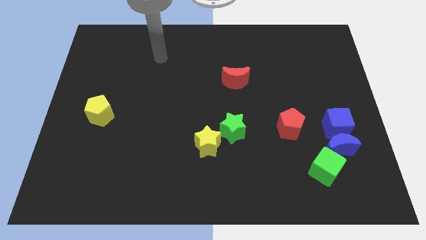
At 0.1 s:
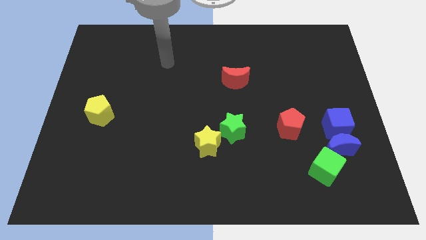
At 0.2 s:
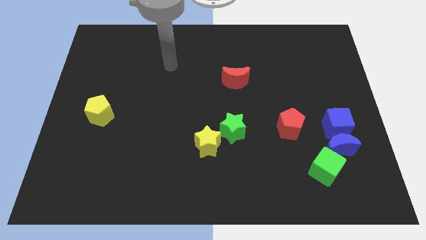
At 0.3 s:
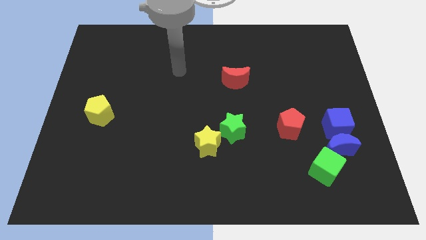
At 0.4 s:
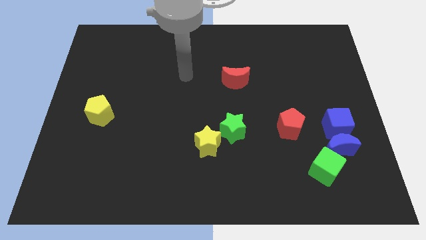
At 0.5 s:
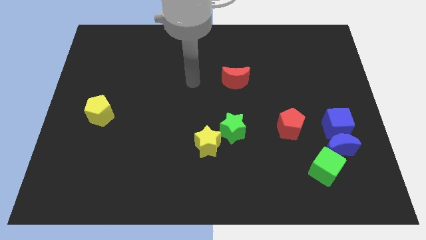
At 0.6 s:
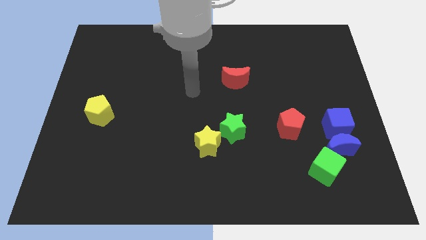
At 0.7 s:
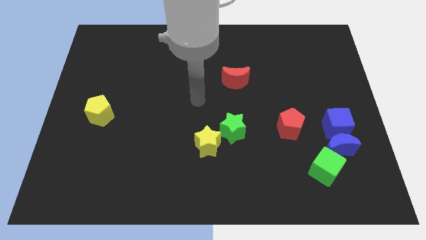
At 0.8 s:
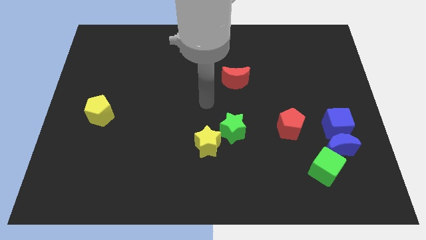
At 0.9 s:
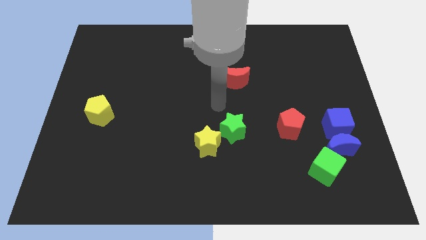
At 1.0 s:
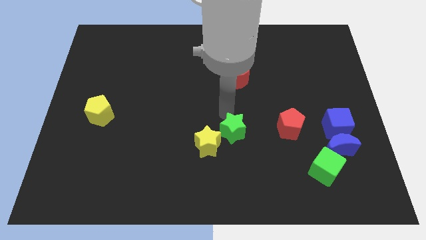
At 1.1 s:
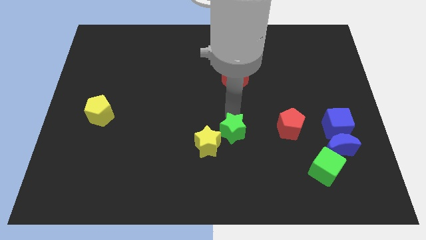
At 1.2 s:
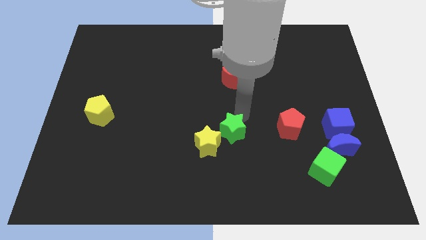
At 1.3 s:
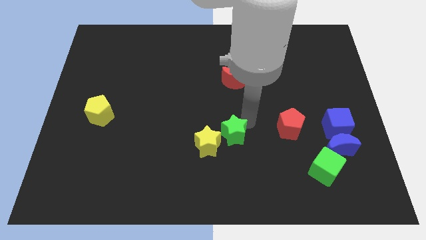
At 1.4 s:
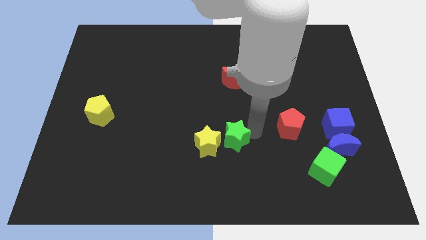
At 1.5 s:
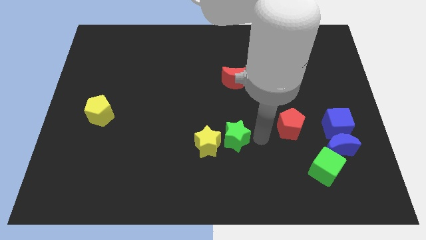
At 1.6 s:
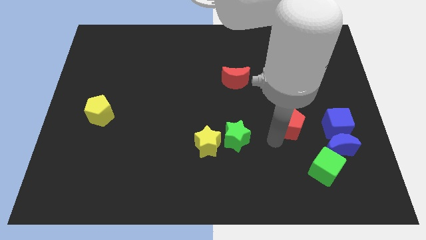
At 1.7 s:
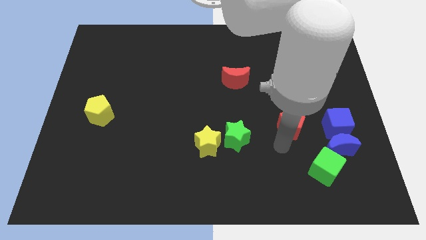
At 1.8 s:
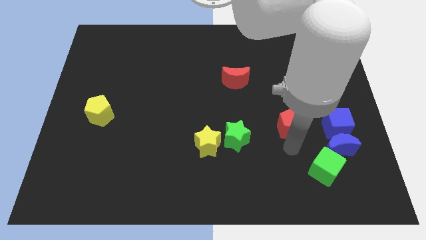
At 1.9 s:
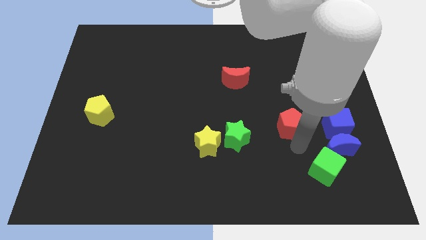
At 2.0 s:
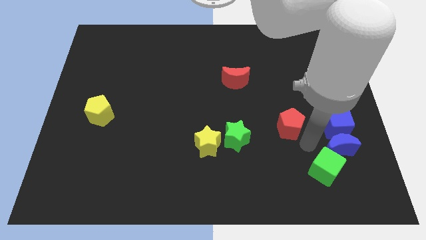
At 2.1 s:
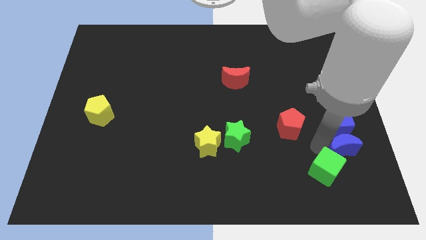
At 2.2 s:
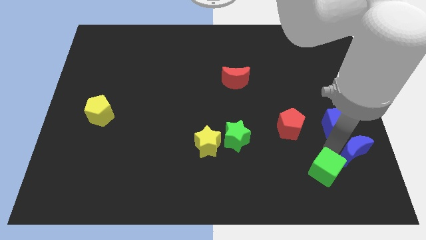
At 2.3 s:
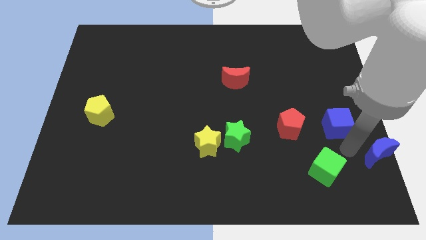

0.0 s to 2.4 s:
separate the blue cube from the blue moon

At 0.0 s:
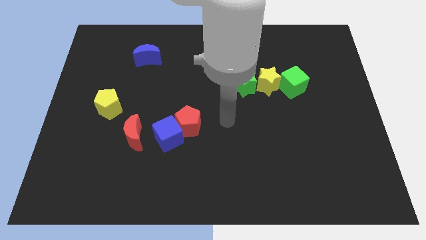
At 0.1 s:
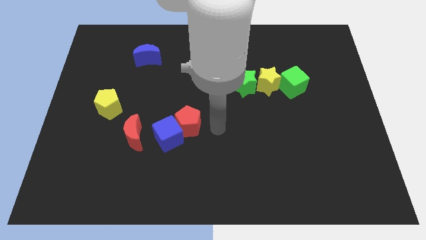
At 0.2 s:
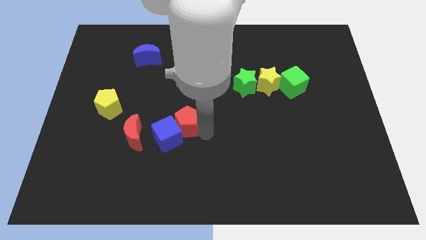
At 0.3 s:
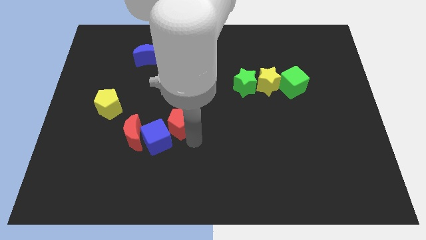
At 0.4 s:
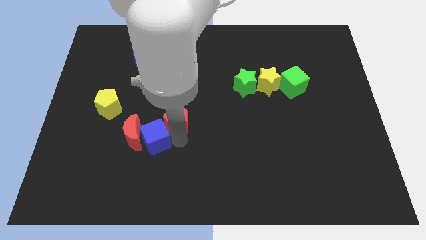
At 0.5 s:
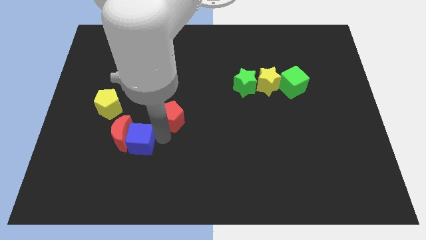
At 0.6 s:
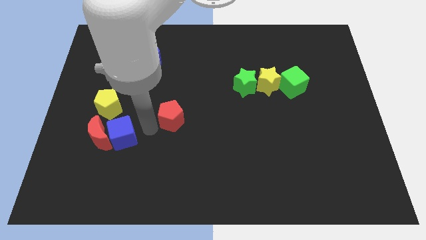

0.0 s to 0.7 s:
separate the red pentagon from the blue cube

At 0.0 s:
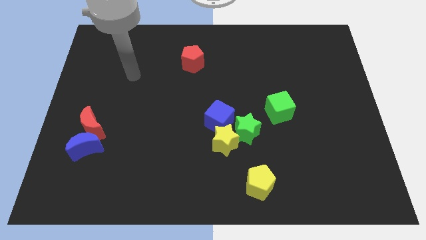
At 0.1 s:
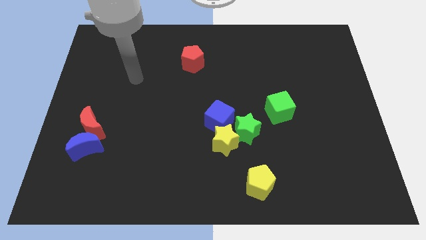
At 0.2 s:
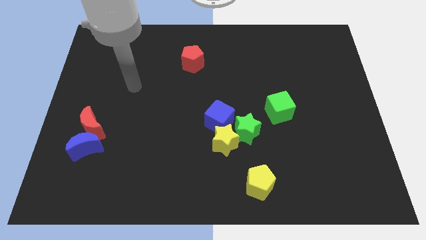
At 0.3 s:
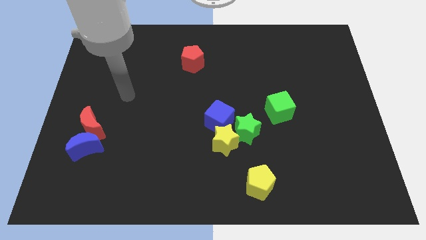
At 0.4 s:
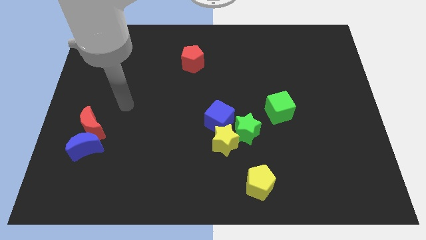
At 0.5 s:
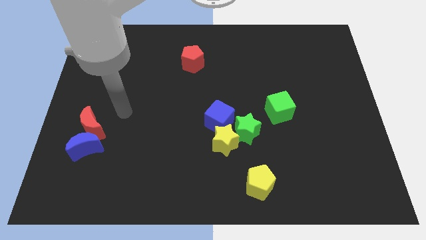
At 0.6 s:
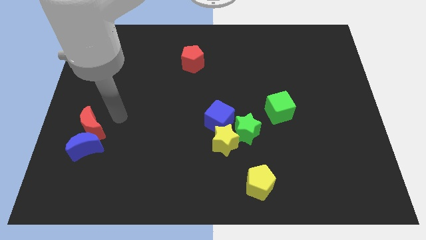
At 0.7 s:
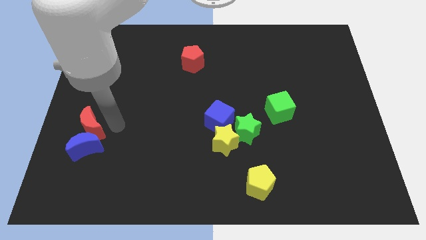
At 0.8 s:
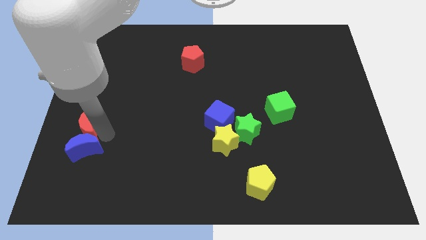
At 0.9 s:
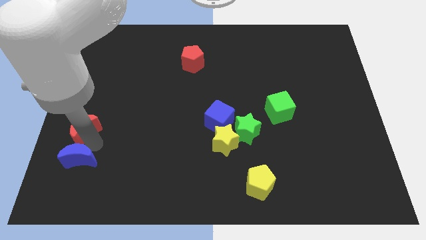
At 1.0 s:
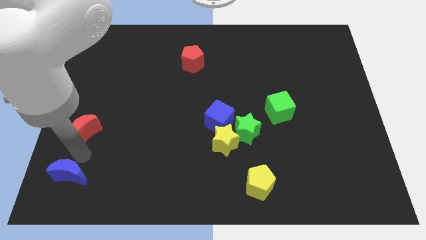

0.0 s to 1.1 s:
pull the red moon apart from the blue moon

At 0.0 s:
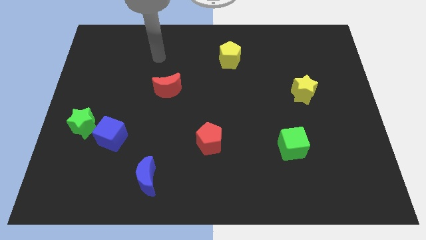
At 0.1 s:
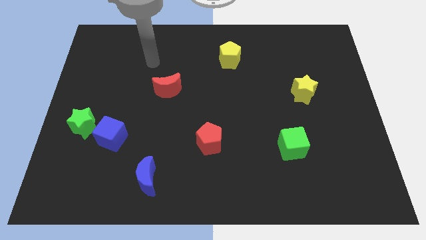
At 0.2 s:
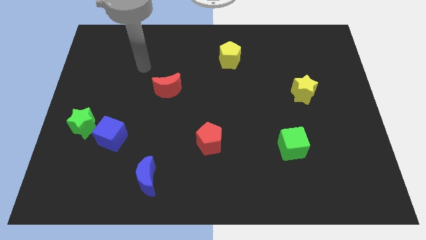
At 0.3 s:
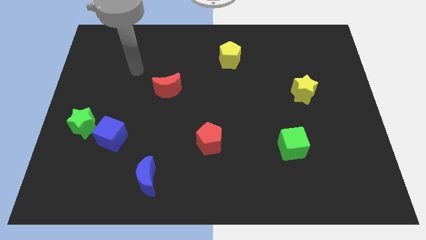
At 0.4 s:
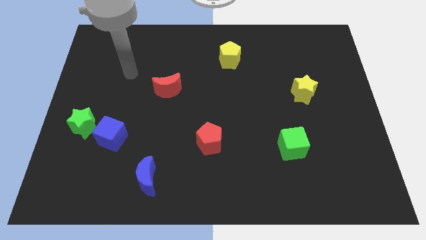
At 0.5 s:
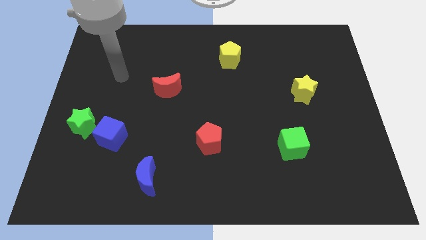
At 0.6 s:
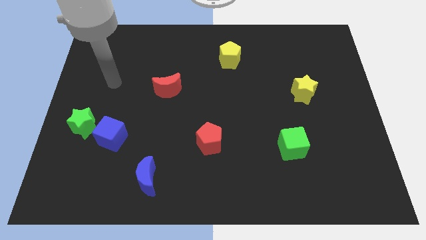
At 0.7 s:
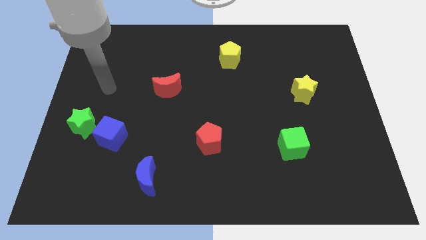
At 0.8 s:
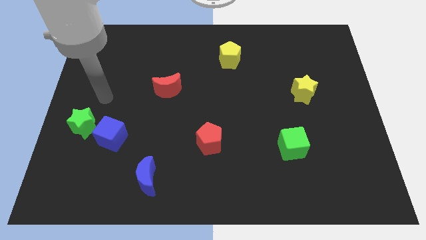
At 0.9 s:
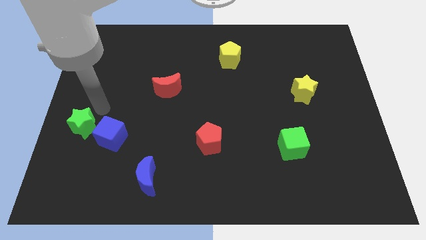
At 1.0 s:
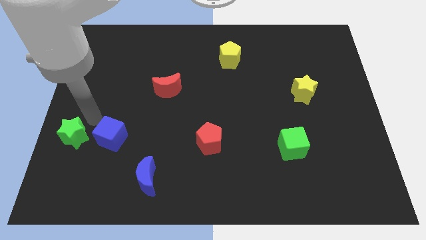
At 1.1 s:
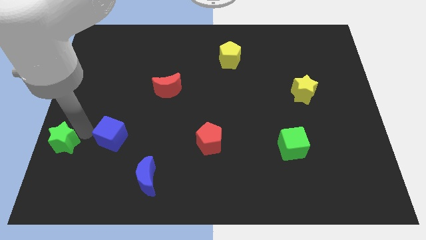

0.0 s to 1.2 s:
move the blue cube away from the green star

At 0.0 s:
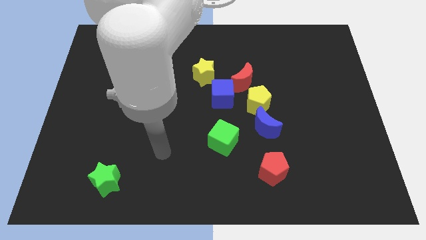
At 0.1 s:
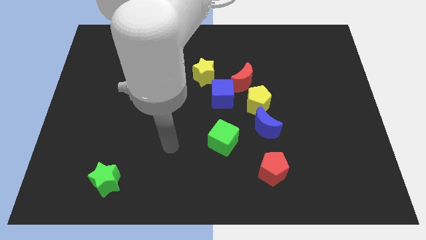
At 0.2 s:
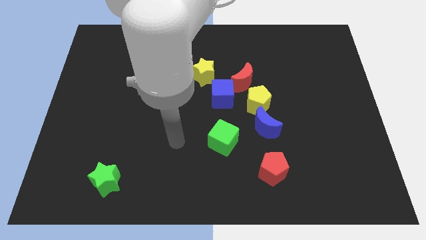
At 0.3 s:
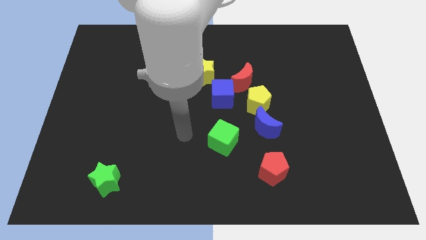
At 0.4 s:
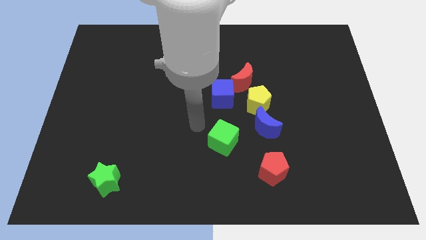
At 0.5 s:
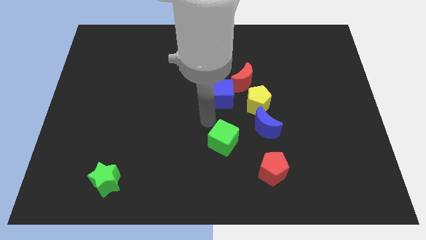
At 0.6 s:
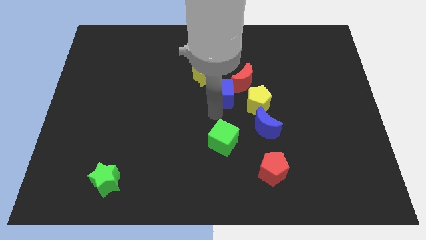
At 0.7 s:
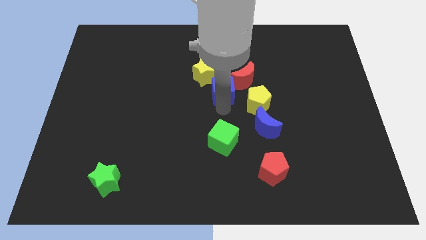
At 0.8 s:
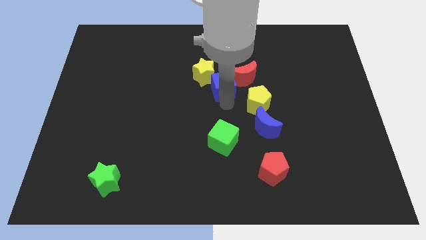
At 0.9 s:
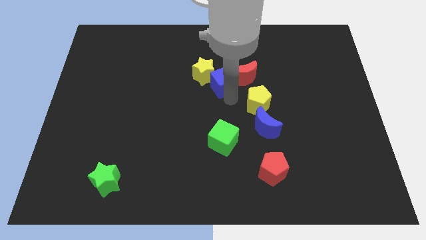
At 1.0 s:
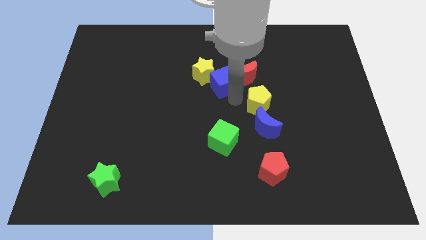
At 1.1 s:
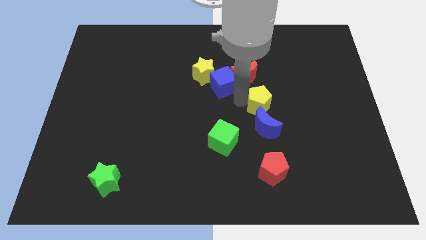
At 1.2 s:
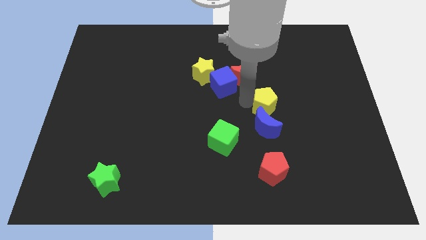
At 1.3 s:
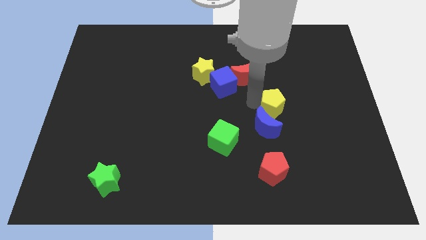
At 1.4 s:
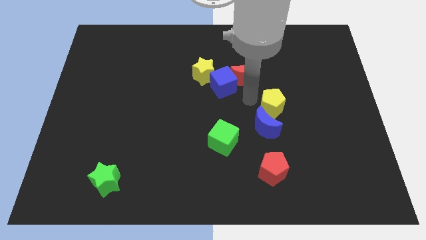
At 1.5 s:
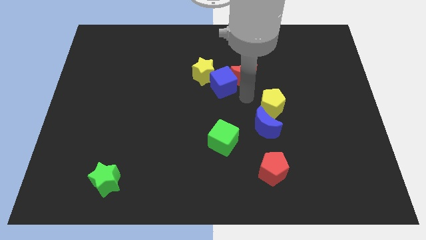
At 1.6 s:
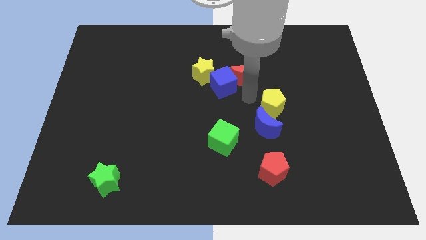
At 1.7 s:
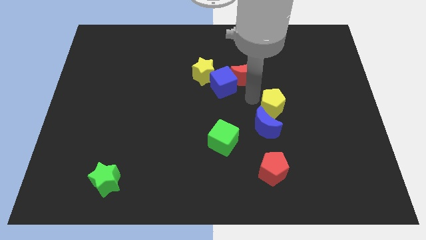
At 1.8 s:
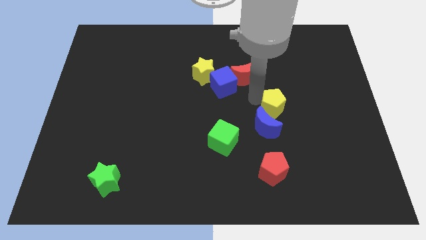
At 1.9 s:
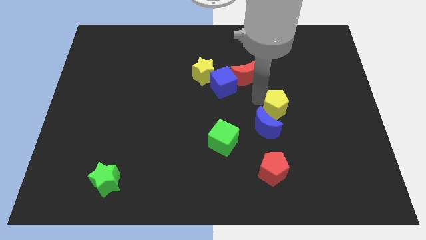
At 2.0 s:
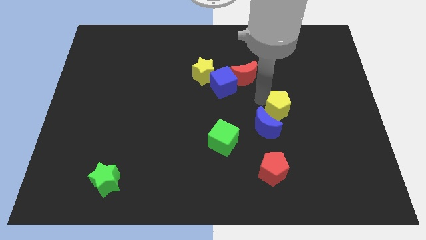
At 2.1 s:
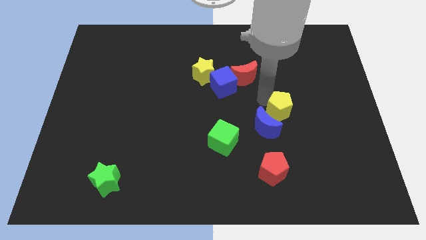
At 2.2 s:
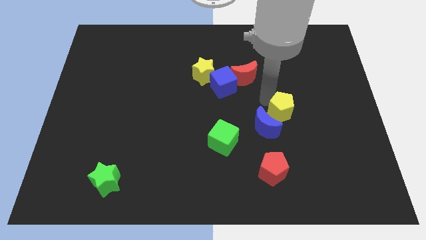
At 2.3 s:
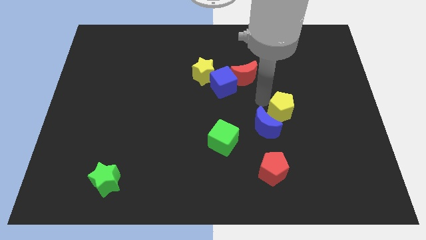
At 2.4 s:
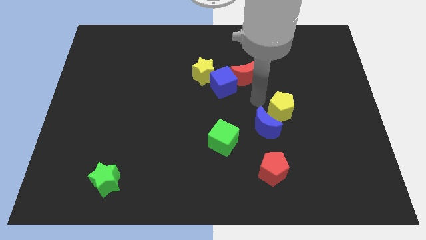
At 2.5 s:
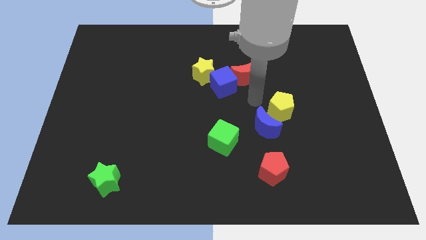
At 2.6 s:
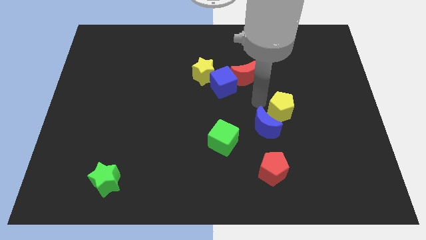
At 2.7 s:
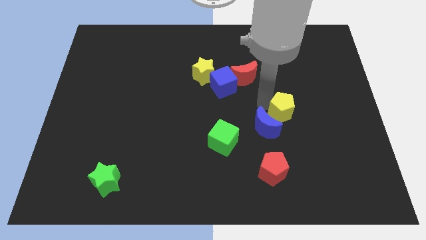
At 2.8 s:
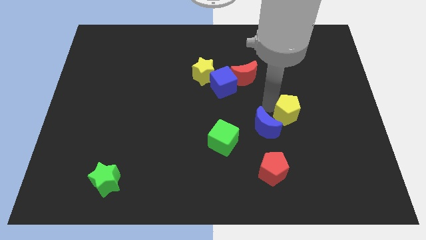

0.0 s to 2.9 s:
pull the yellow pentagon apart from the blue moon, red moon, and blue cube

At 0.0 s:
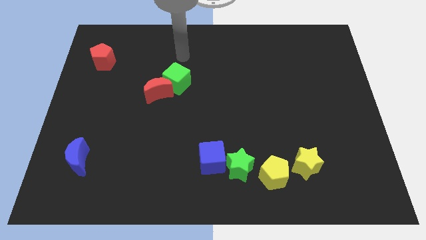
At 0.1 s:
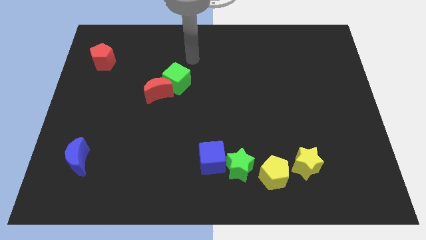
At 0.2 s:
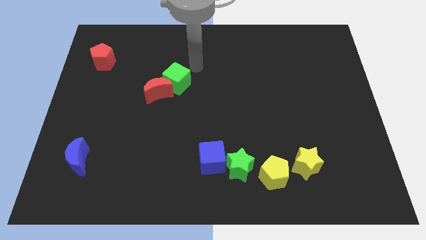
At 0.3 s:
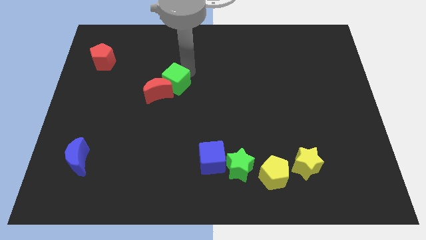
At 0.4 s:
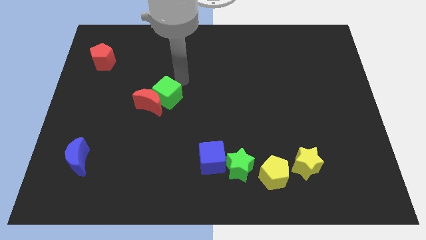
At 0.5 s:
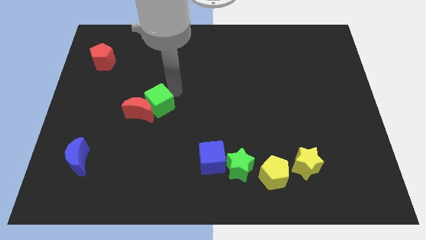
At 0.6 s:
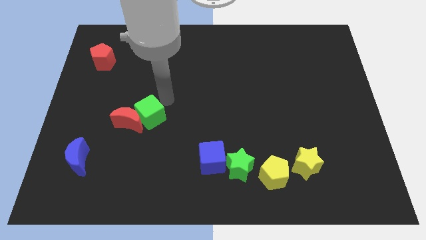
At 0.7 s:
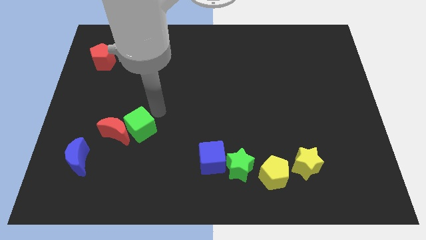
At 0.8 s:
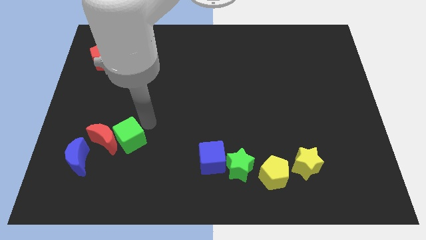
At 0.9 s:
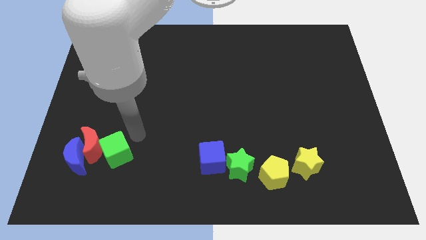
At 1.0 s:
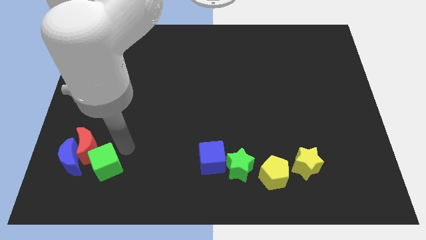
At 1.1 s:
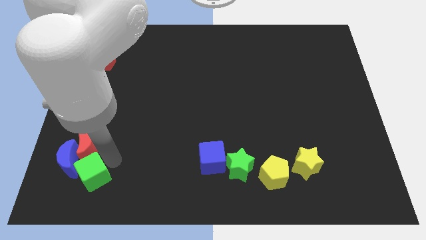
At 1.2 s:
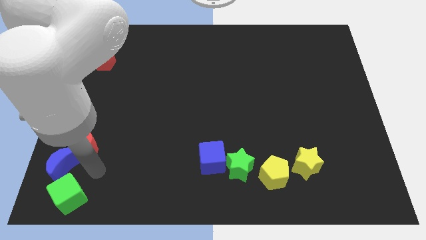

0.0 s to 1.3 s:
separate the red moon from the green cube
